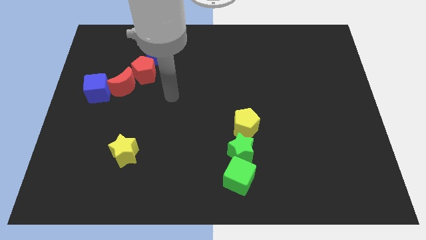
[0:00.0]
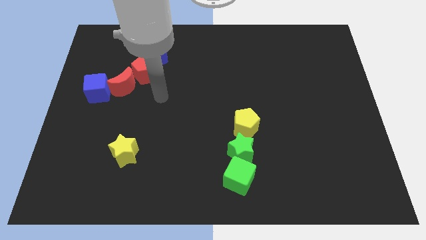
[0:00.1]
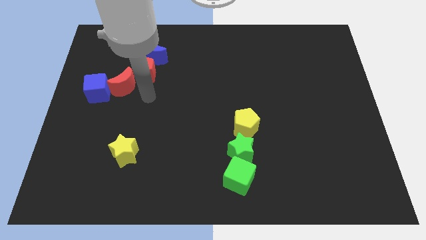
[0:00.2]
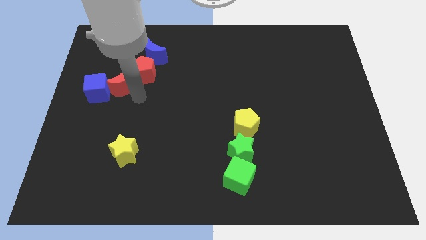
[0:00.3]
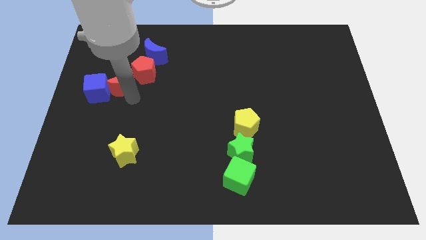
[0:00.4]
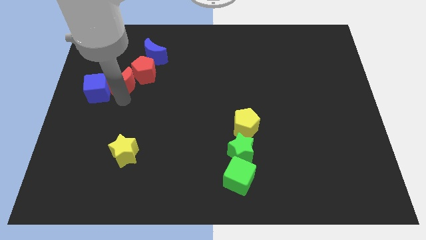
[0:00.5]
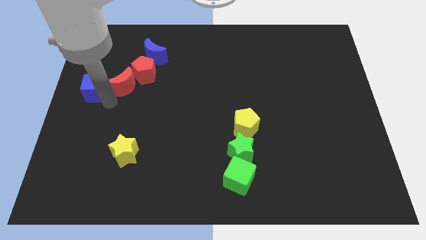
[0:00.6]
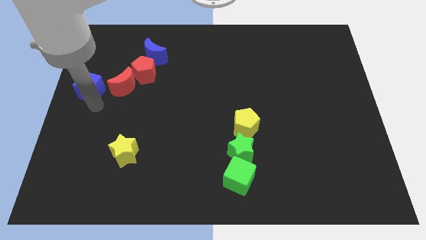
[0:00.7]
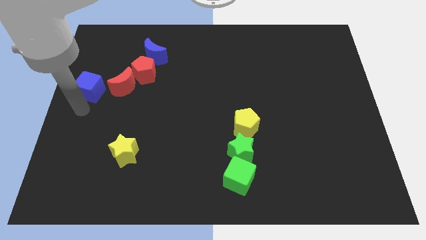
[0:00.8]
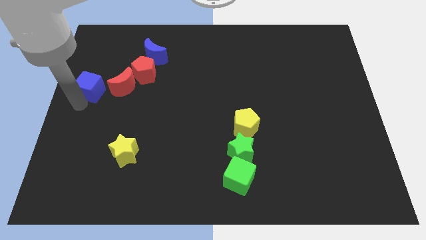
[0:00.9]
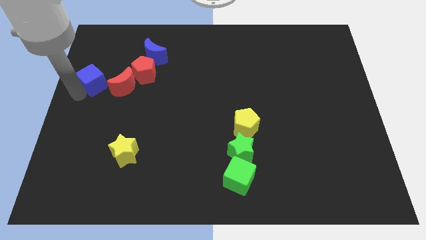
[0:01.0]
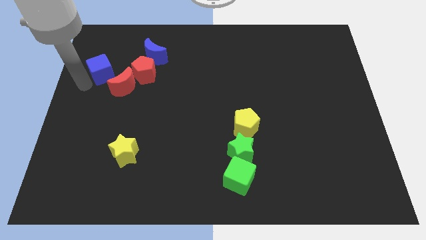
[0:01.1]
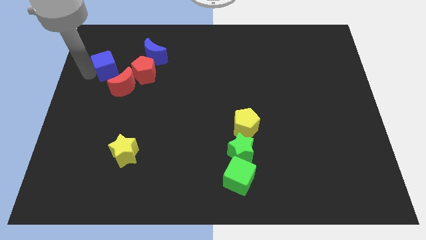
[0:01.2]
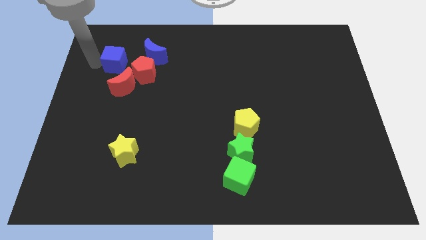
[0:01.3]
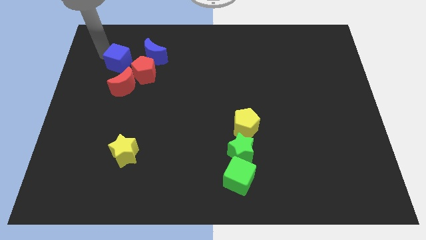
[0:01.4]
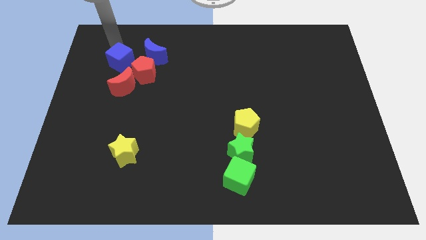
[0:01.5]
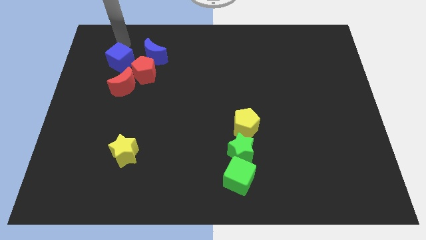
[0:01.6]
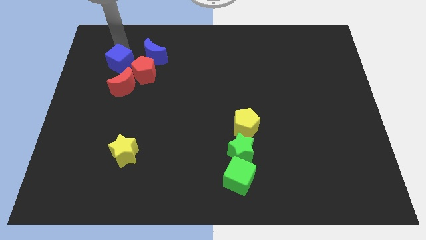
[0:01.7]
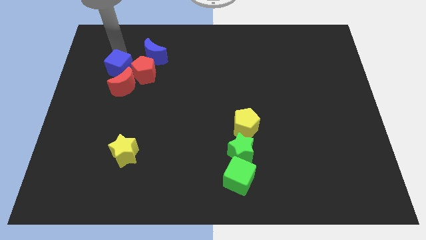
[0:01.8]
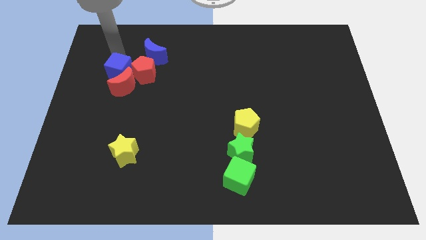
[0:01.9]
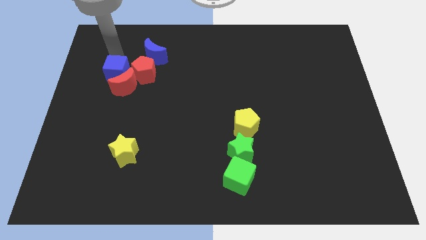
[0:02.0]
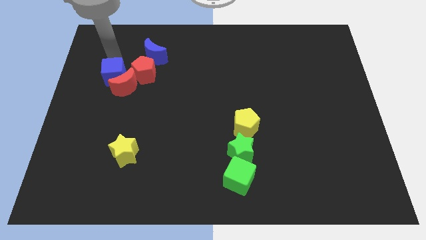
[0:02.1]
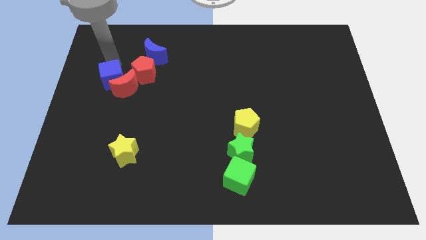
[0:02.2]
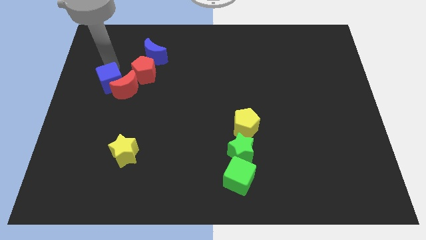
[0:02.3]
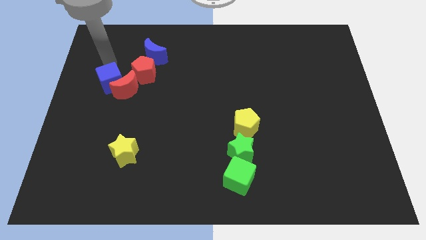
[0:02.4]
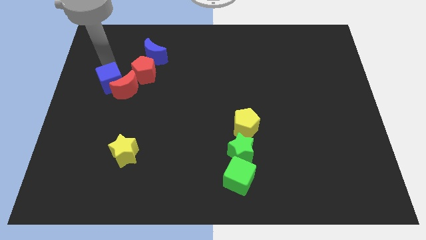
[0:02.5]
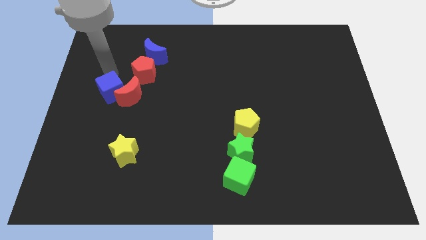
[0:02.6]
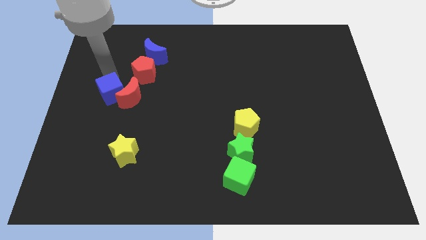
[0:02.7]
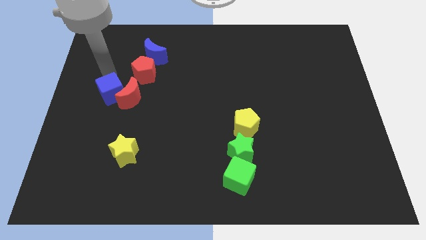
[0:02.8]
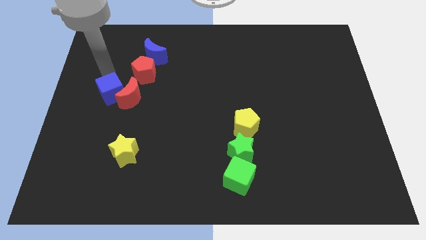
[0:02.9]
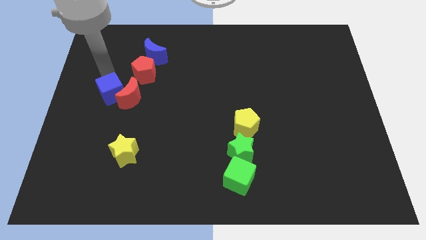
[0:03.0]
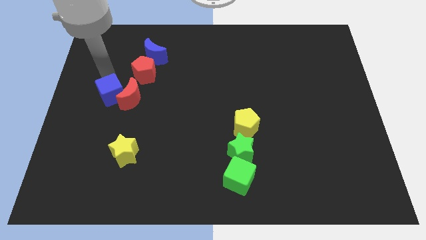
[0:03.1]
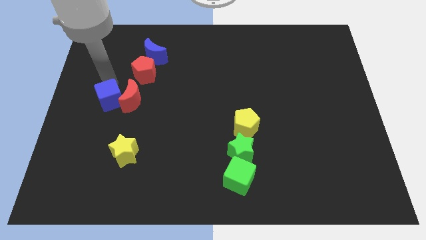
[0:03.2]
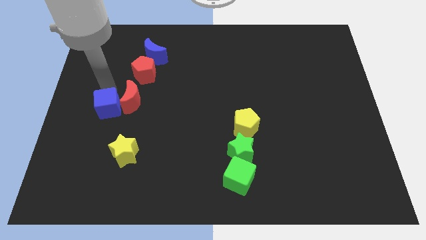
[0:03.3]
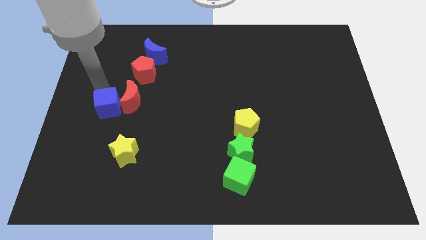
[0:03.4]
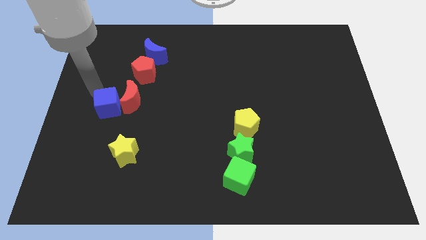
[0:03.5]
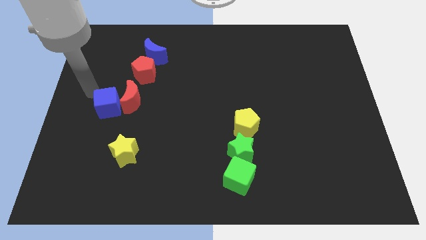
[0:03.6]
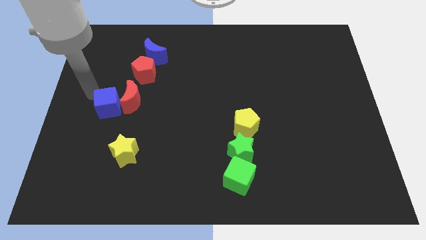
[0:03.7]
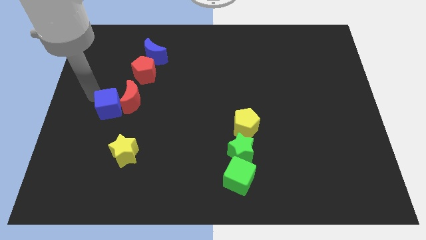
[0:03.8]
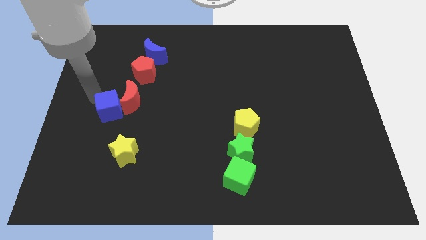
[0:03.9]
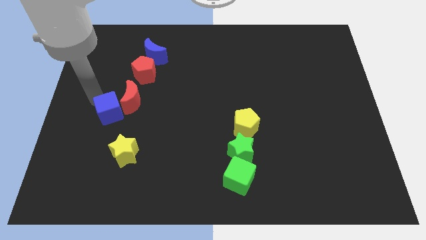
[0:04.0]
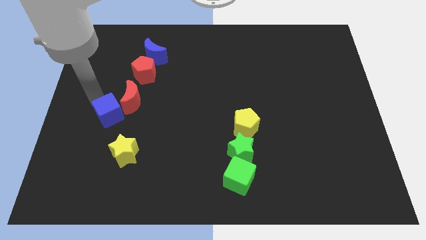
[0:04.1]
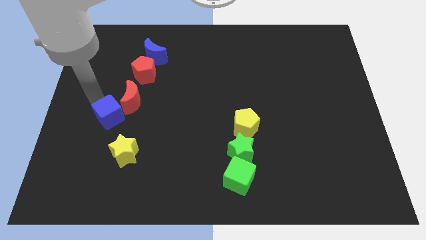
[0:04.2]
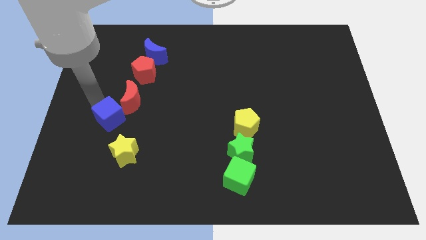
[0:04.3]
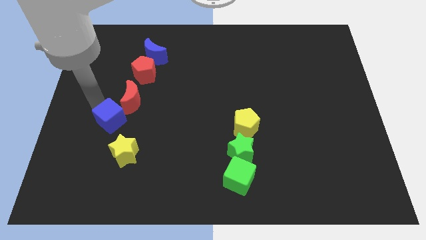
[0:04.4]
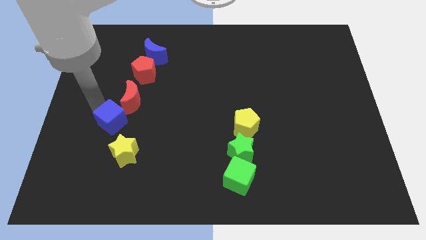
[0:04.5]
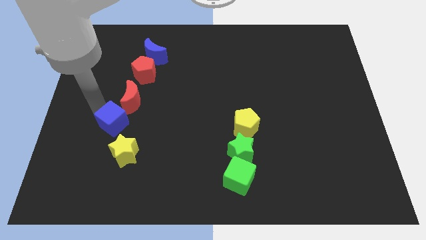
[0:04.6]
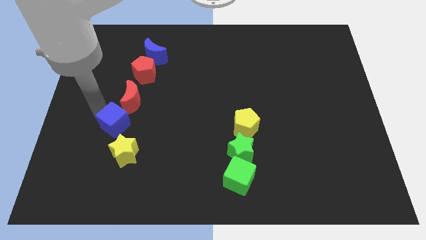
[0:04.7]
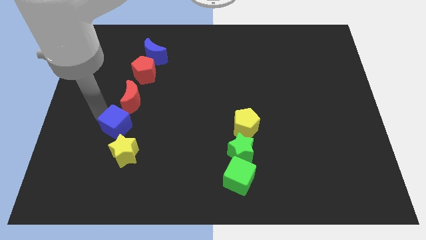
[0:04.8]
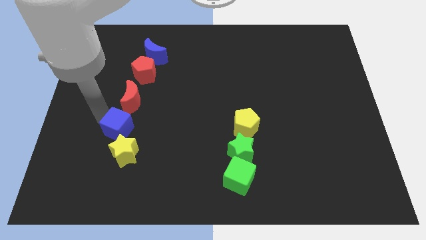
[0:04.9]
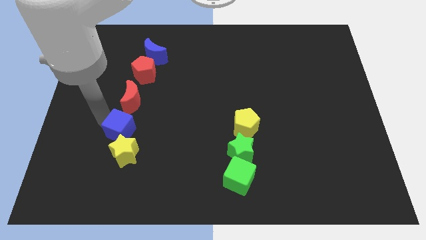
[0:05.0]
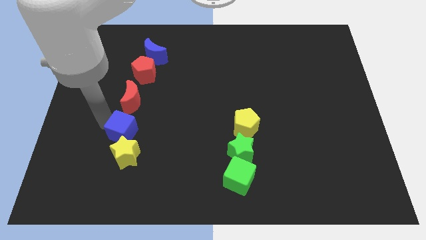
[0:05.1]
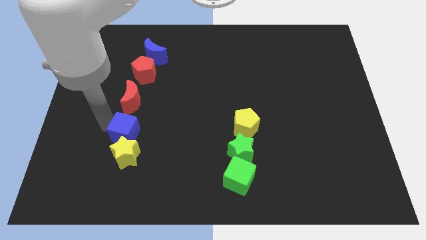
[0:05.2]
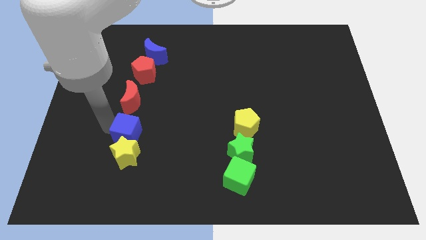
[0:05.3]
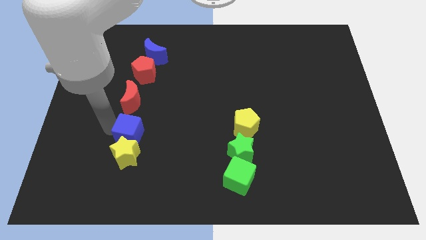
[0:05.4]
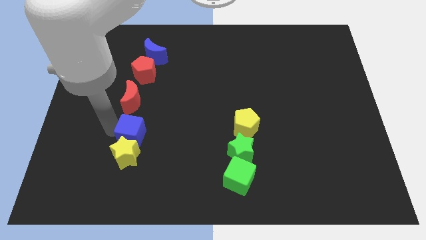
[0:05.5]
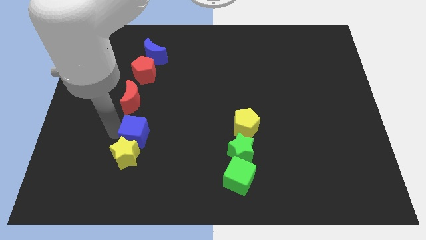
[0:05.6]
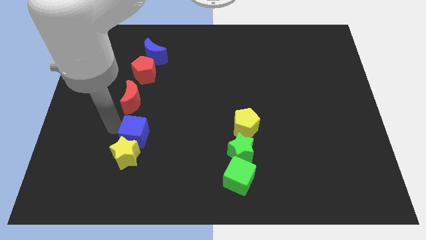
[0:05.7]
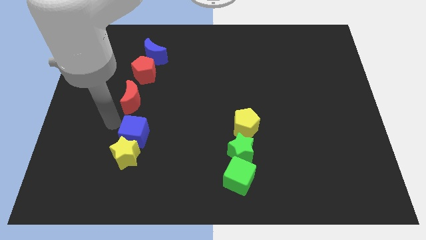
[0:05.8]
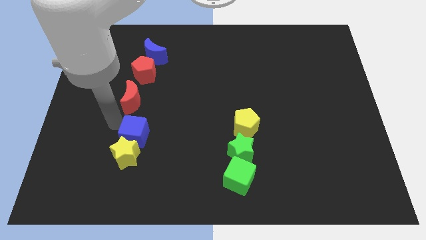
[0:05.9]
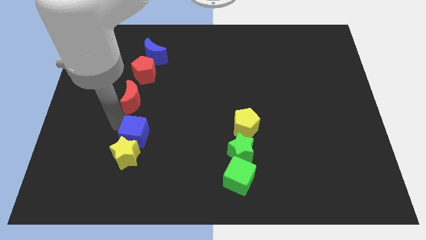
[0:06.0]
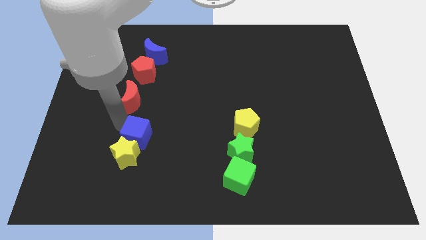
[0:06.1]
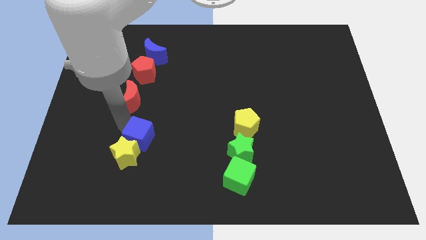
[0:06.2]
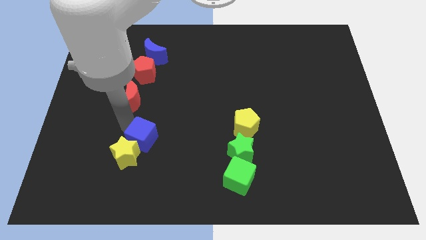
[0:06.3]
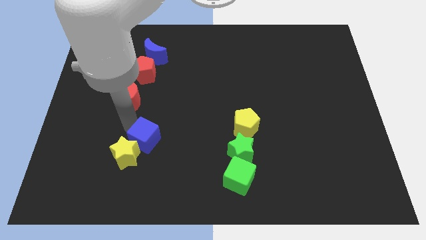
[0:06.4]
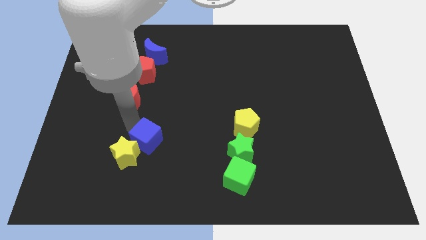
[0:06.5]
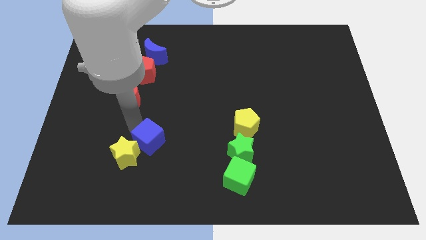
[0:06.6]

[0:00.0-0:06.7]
push the blue cube down and then right

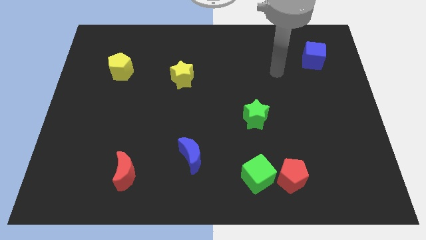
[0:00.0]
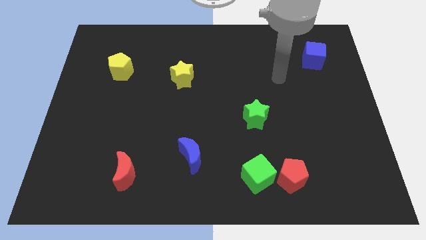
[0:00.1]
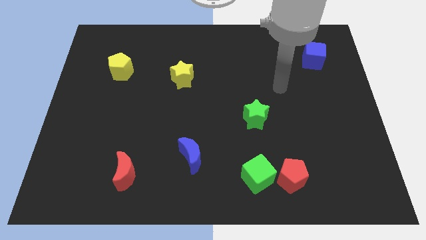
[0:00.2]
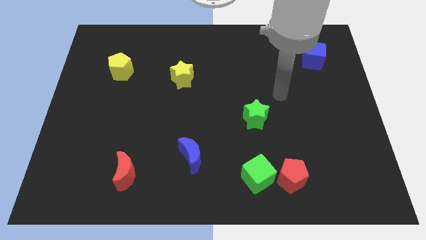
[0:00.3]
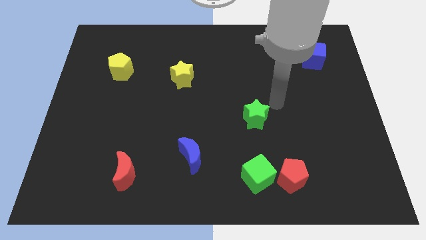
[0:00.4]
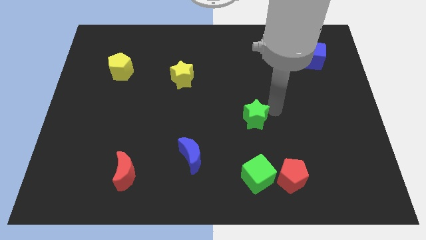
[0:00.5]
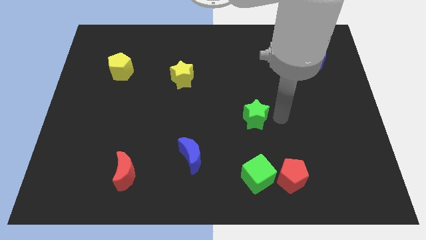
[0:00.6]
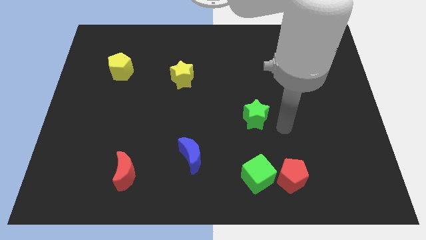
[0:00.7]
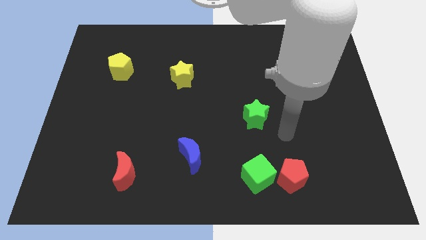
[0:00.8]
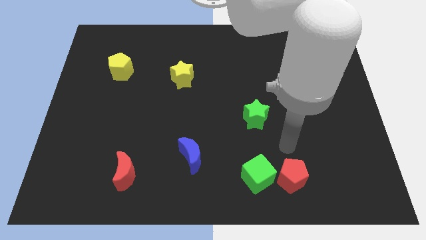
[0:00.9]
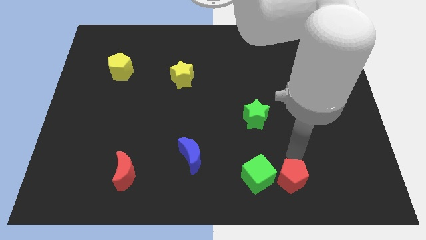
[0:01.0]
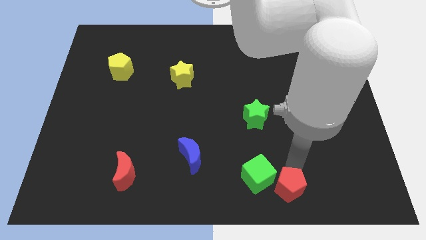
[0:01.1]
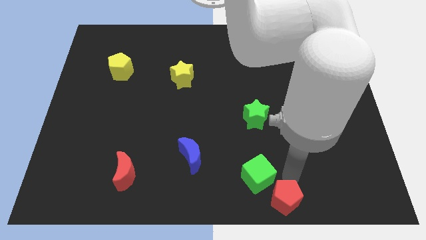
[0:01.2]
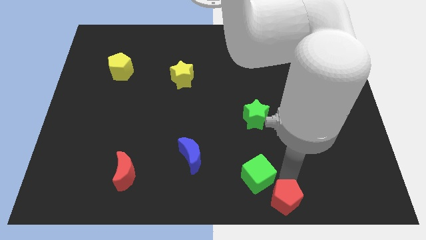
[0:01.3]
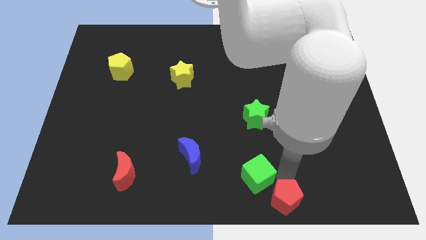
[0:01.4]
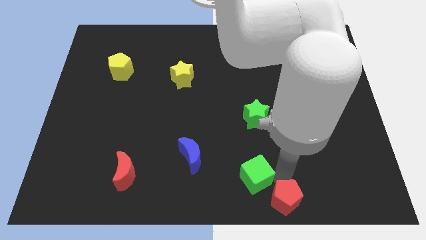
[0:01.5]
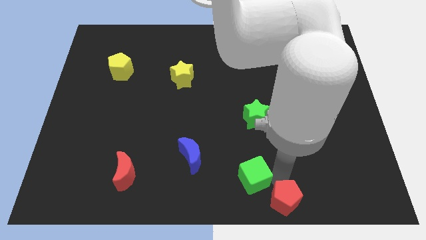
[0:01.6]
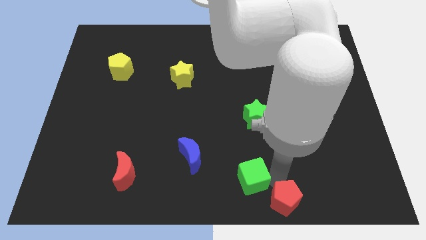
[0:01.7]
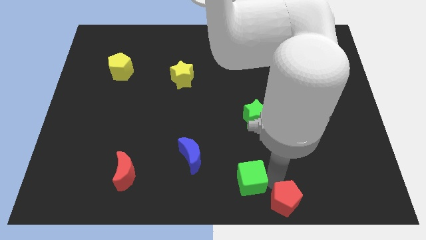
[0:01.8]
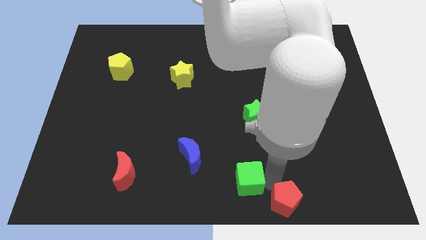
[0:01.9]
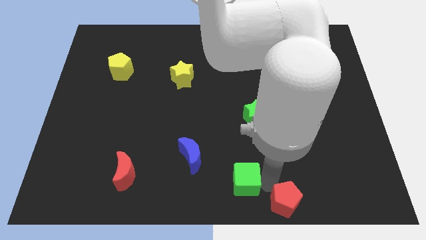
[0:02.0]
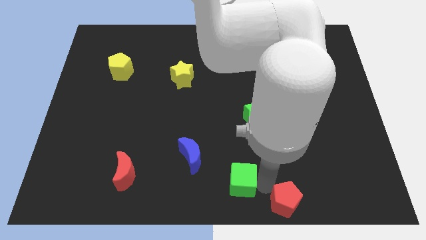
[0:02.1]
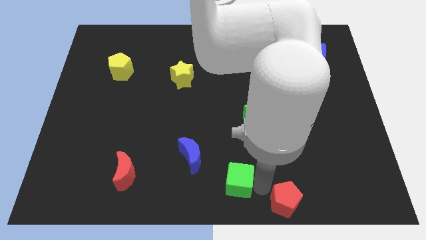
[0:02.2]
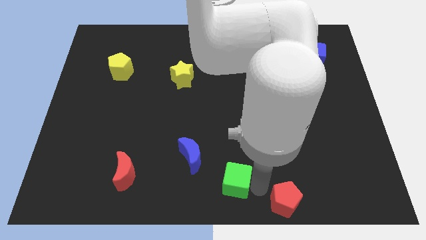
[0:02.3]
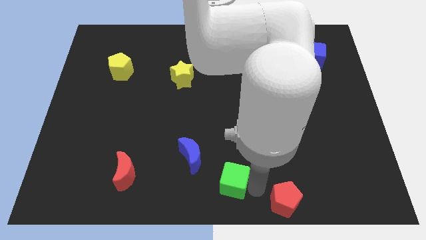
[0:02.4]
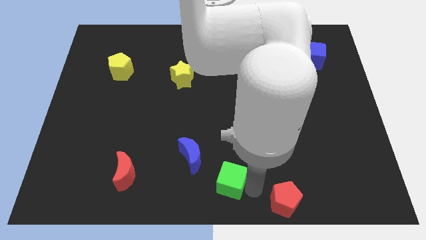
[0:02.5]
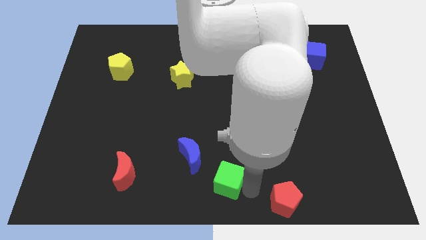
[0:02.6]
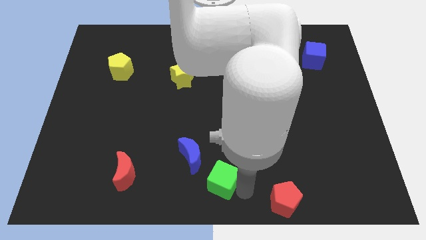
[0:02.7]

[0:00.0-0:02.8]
push the green cube to the left slightly
